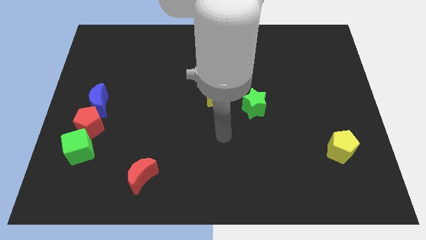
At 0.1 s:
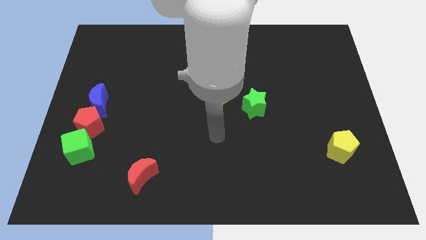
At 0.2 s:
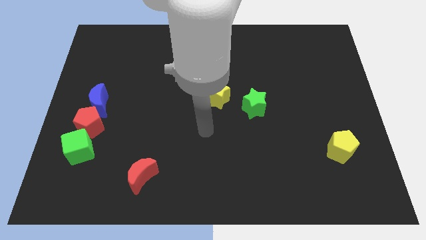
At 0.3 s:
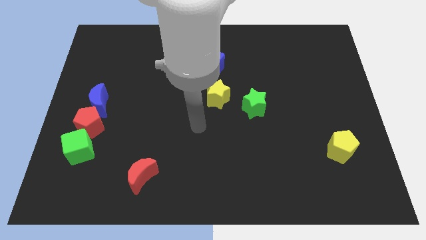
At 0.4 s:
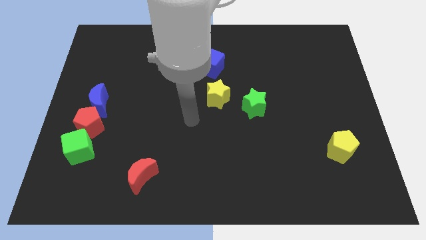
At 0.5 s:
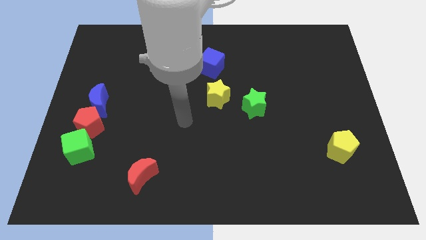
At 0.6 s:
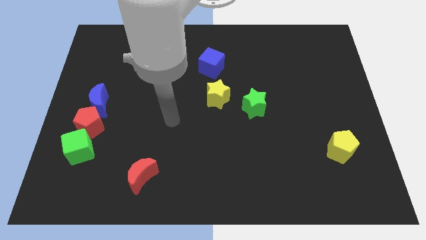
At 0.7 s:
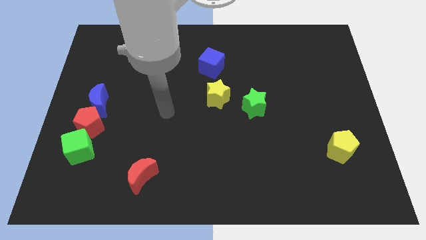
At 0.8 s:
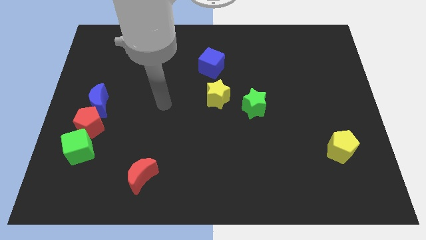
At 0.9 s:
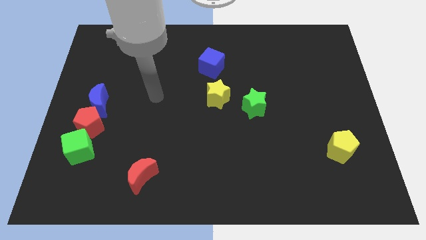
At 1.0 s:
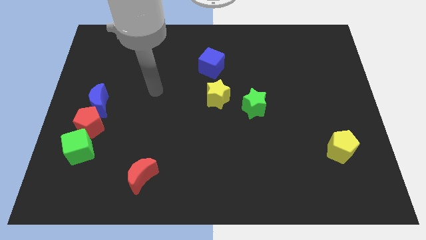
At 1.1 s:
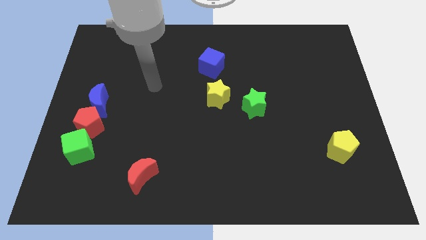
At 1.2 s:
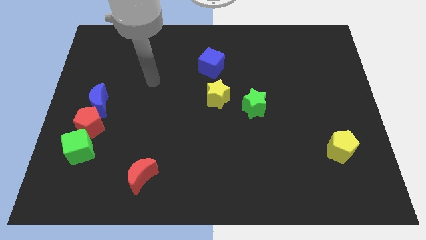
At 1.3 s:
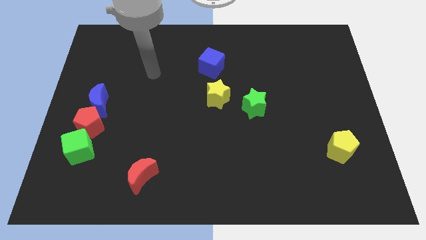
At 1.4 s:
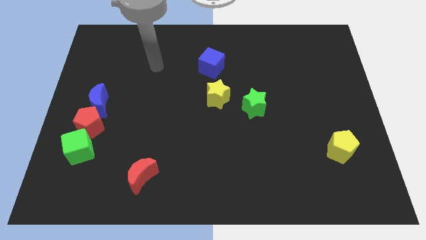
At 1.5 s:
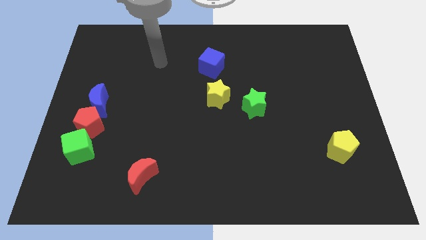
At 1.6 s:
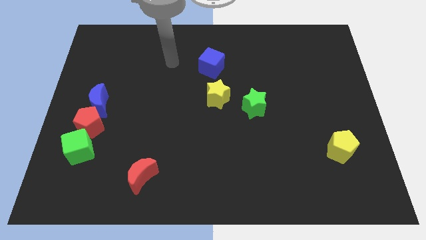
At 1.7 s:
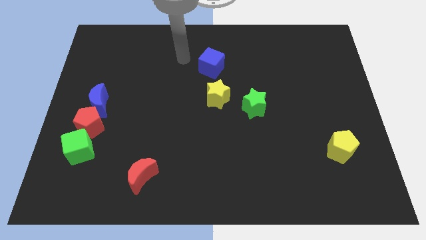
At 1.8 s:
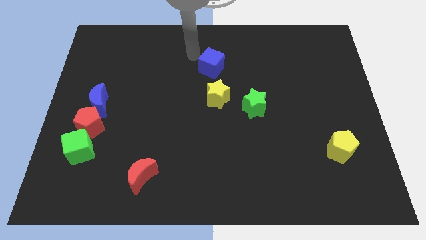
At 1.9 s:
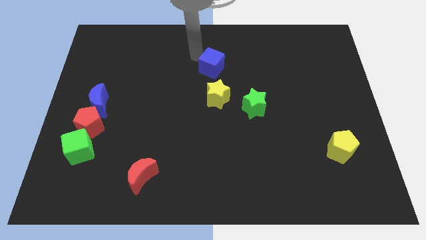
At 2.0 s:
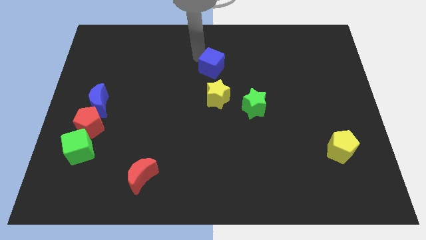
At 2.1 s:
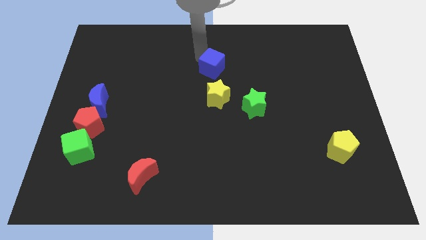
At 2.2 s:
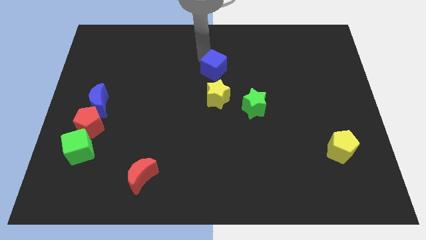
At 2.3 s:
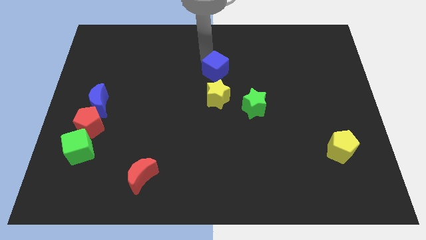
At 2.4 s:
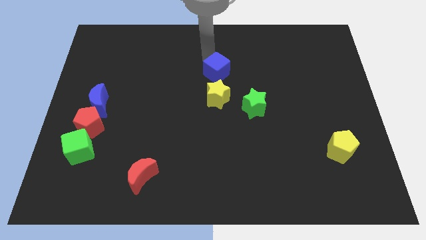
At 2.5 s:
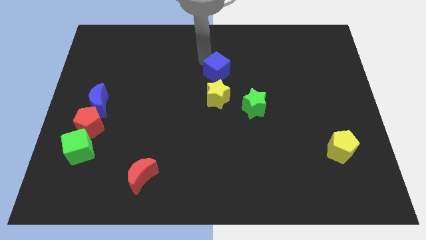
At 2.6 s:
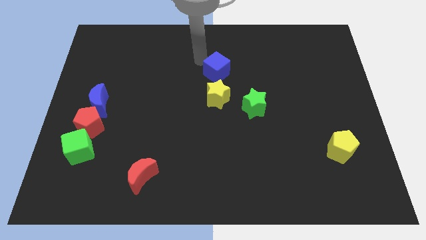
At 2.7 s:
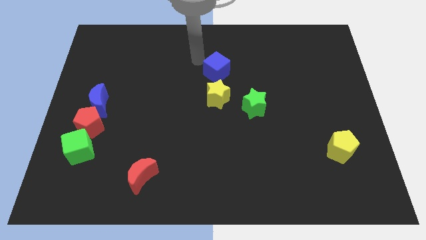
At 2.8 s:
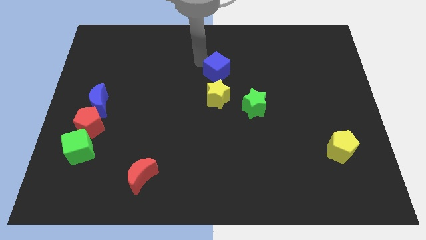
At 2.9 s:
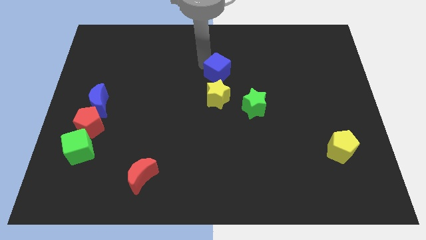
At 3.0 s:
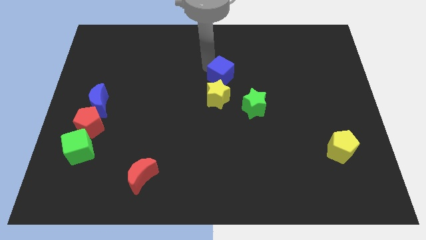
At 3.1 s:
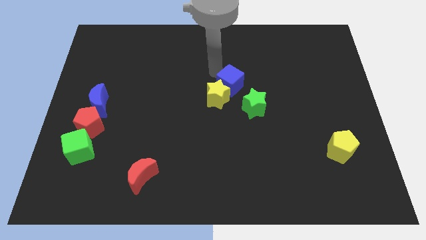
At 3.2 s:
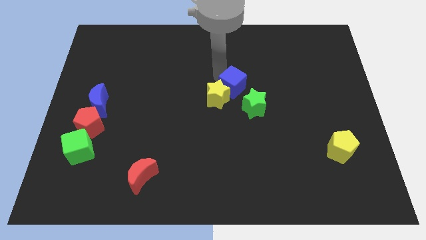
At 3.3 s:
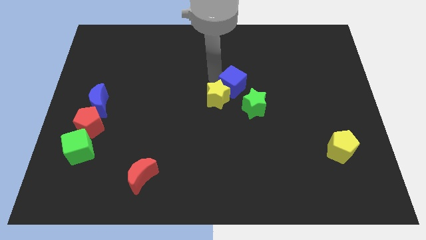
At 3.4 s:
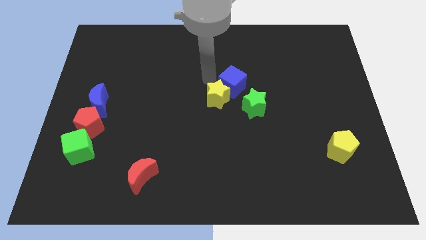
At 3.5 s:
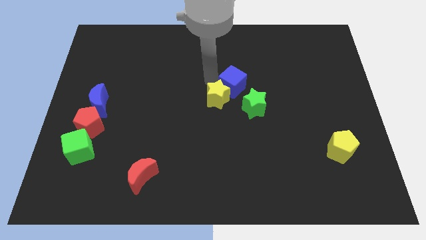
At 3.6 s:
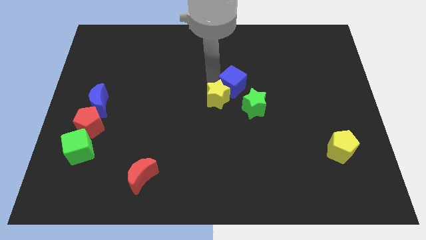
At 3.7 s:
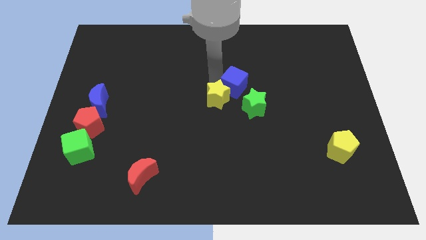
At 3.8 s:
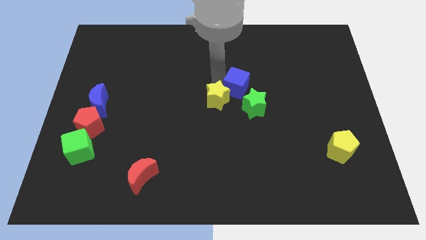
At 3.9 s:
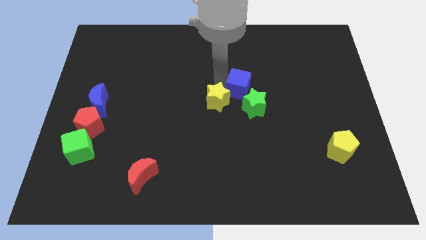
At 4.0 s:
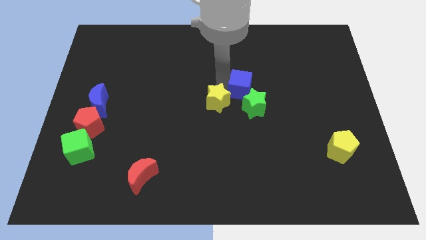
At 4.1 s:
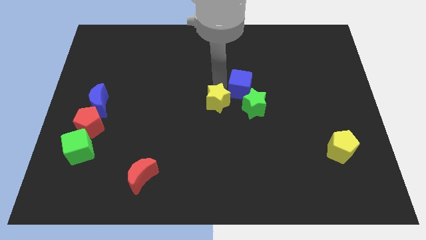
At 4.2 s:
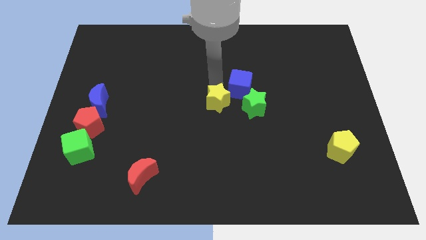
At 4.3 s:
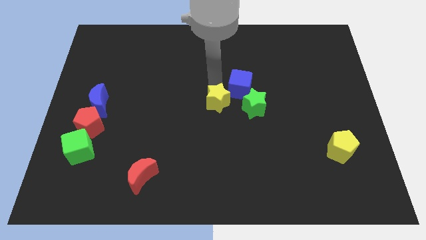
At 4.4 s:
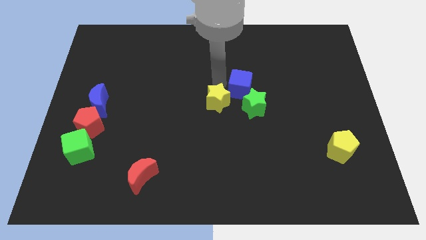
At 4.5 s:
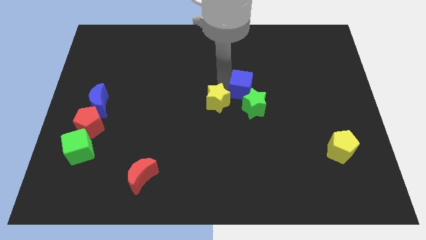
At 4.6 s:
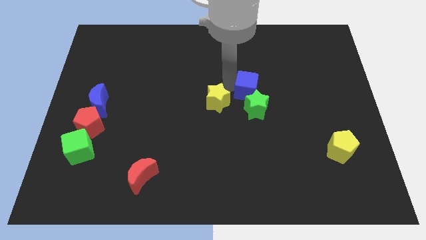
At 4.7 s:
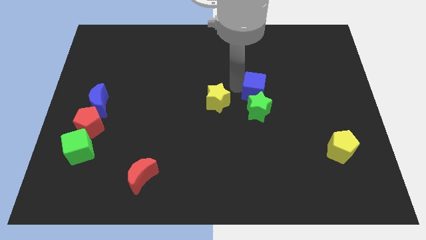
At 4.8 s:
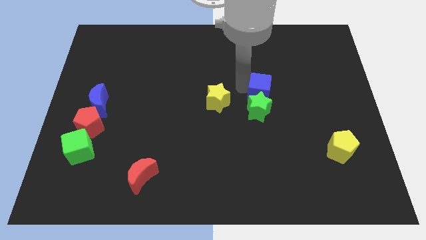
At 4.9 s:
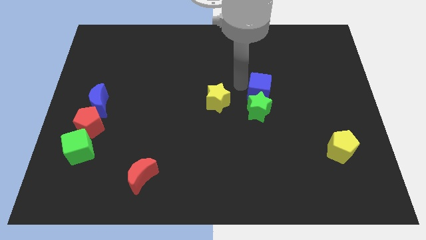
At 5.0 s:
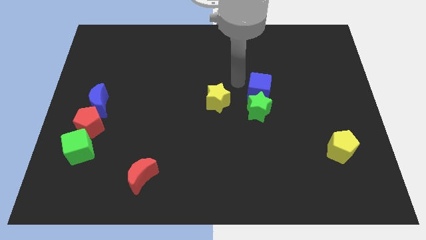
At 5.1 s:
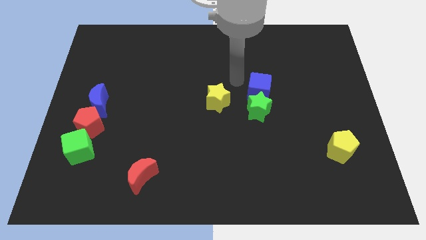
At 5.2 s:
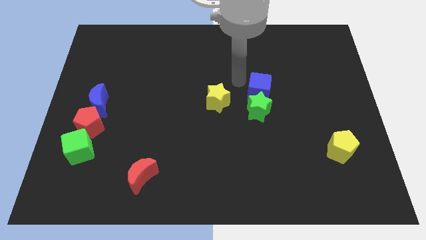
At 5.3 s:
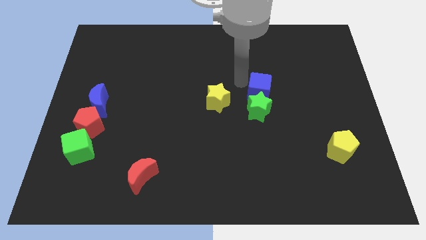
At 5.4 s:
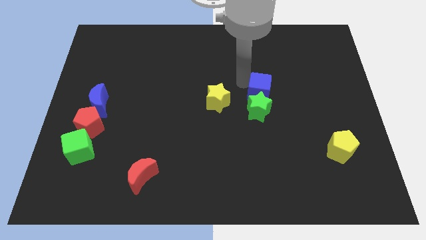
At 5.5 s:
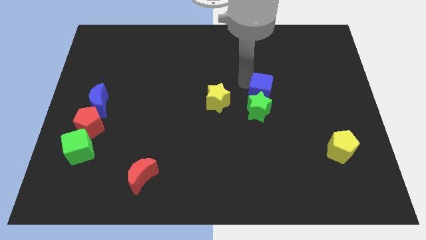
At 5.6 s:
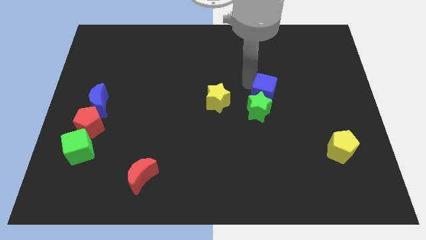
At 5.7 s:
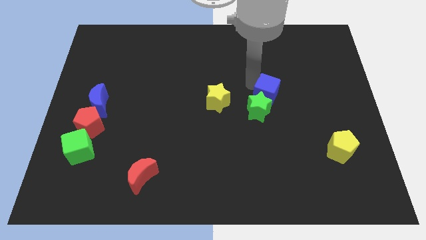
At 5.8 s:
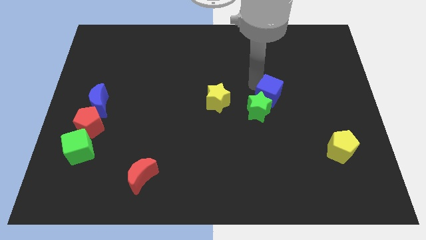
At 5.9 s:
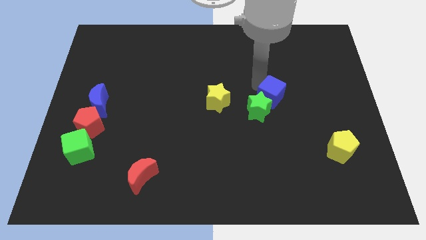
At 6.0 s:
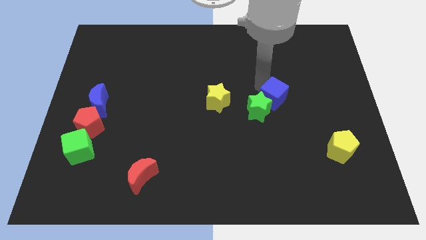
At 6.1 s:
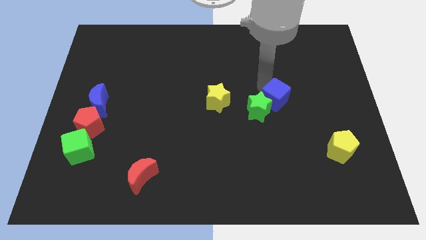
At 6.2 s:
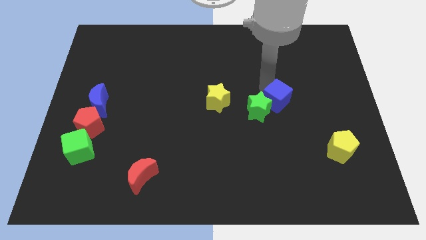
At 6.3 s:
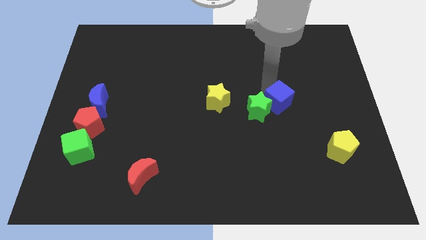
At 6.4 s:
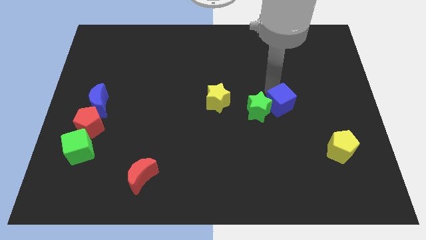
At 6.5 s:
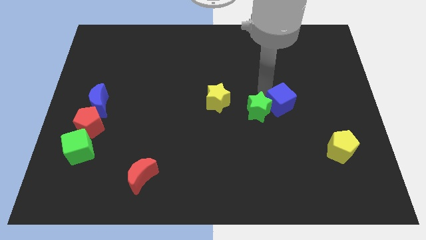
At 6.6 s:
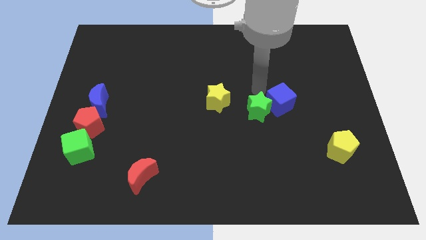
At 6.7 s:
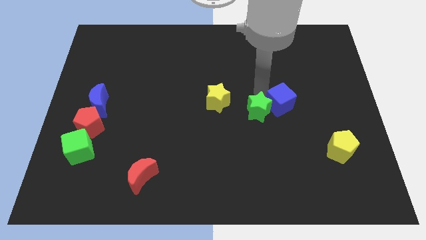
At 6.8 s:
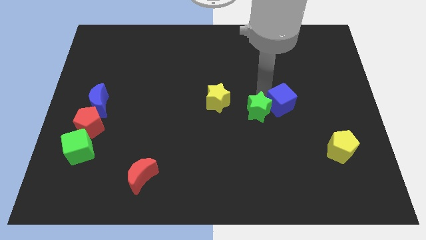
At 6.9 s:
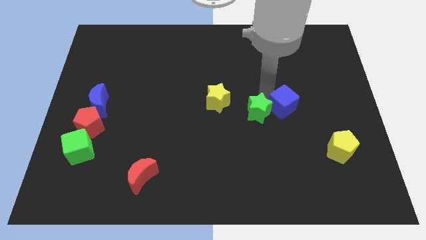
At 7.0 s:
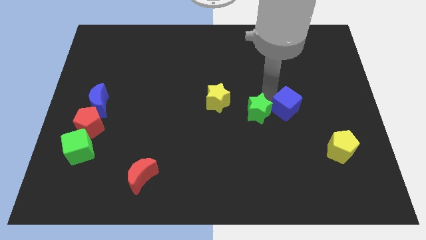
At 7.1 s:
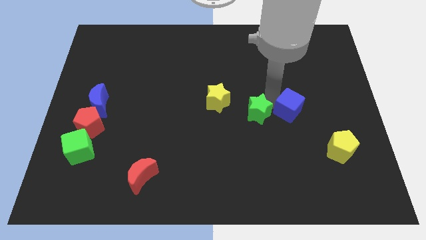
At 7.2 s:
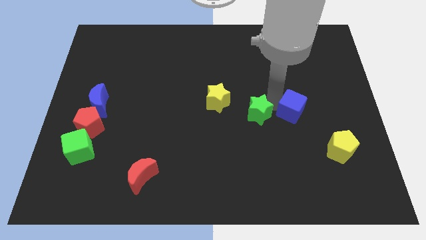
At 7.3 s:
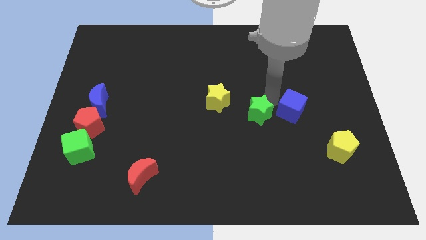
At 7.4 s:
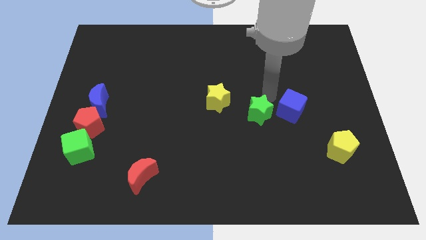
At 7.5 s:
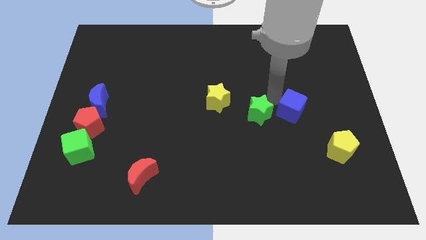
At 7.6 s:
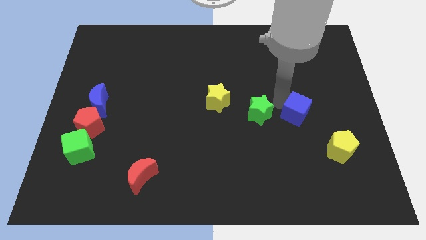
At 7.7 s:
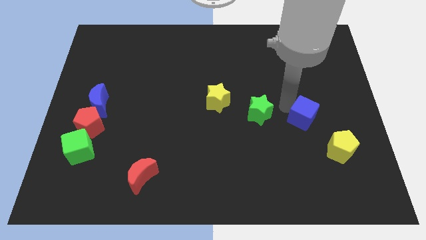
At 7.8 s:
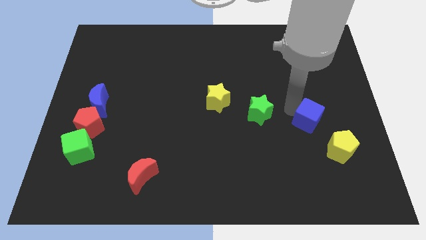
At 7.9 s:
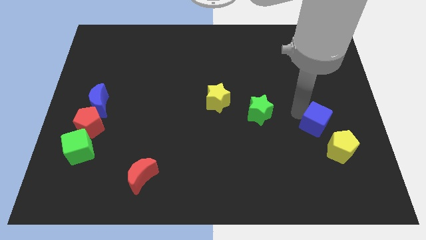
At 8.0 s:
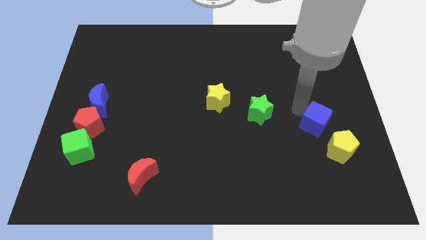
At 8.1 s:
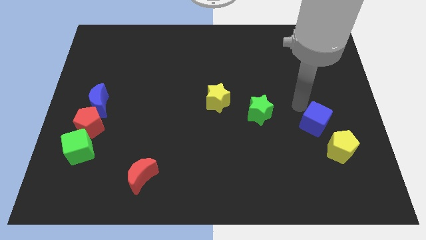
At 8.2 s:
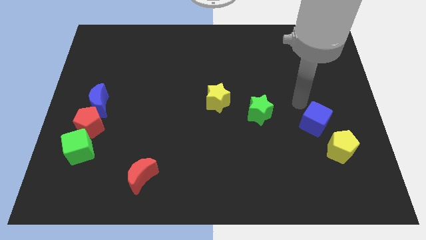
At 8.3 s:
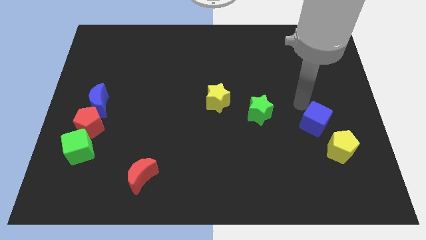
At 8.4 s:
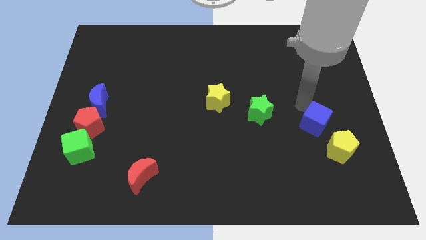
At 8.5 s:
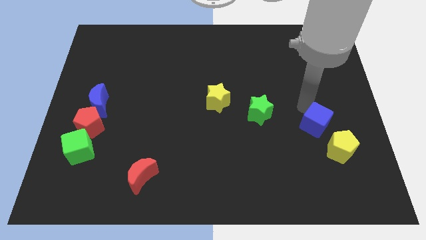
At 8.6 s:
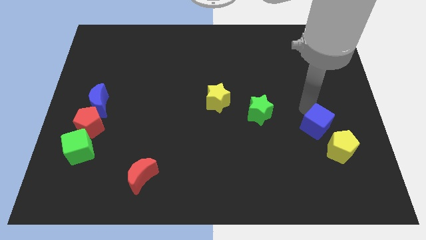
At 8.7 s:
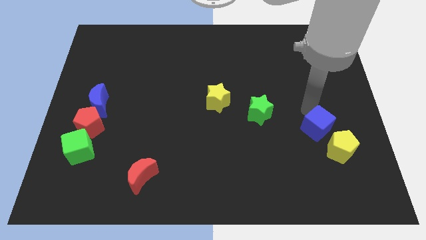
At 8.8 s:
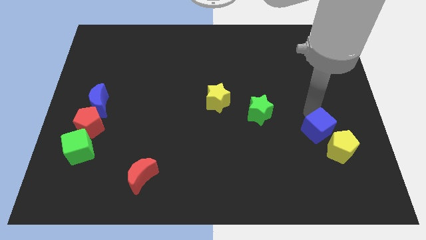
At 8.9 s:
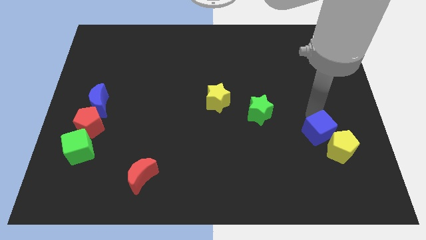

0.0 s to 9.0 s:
move the blue cube to the yellow pentagon
